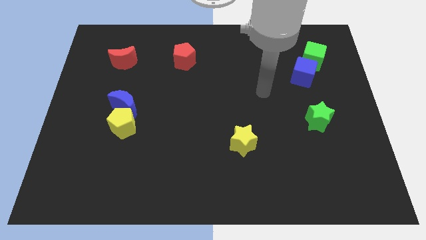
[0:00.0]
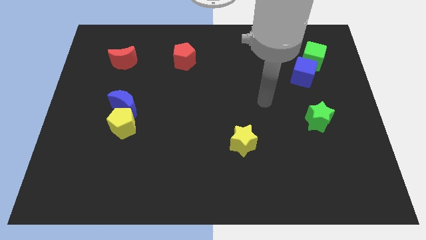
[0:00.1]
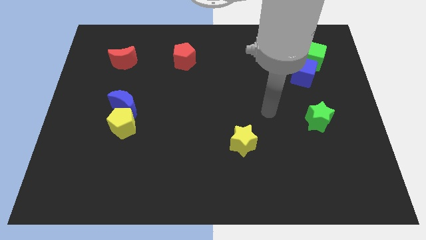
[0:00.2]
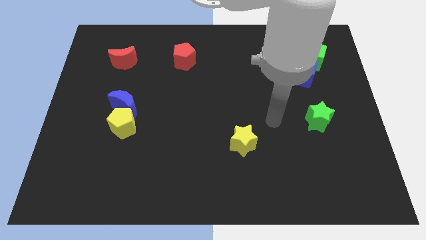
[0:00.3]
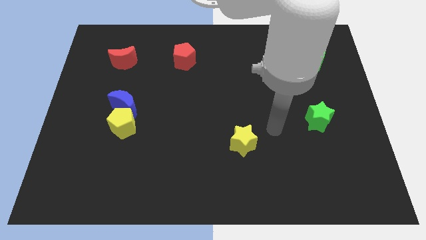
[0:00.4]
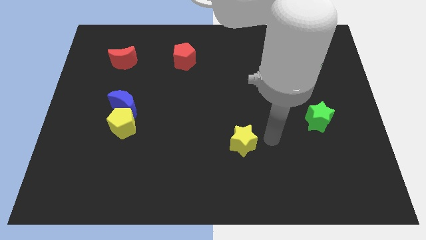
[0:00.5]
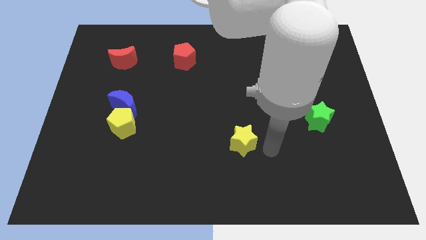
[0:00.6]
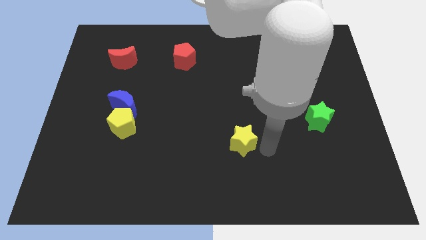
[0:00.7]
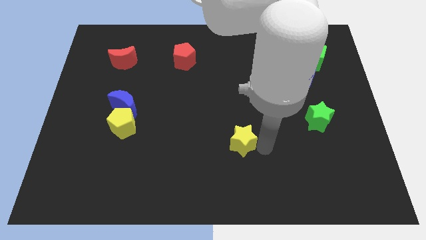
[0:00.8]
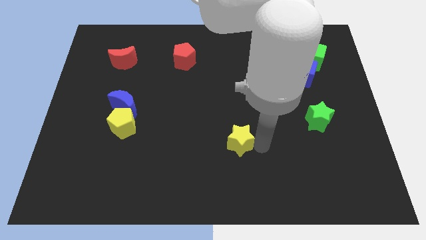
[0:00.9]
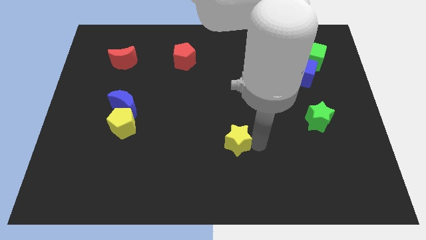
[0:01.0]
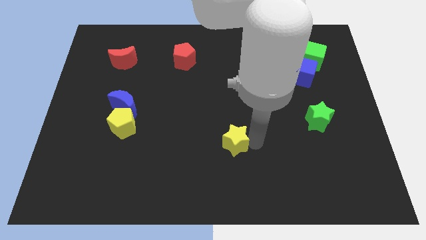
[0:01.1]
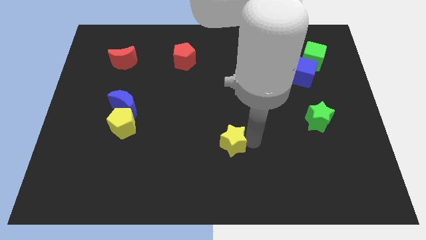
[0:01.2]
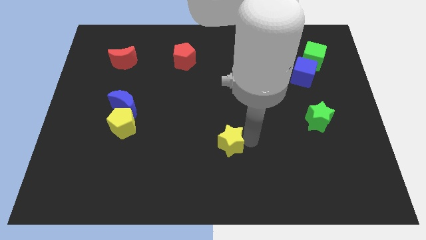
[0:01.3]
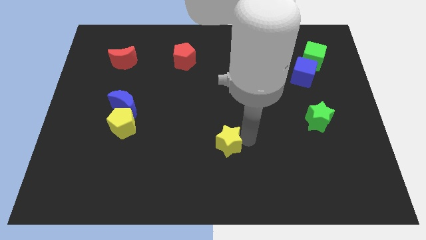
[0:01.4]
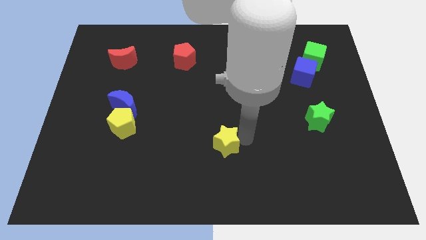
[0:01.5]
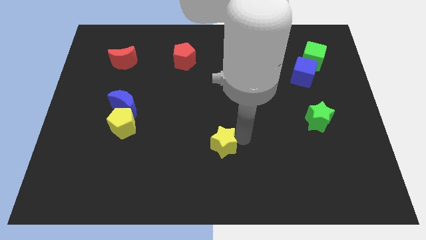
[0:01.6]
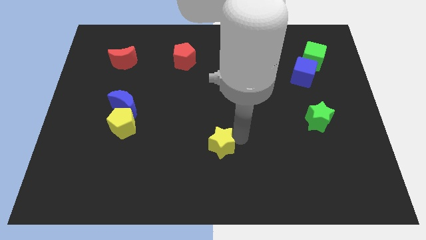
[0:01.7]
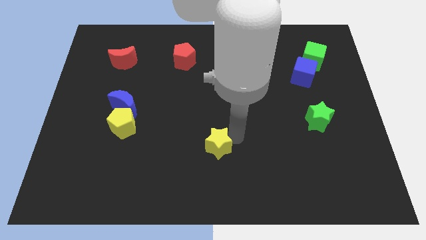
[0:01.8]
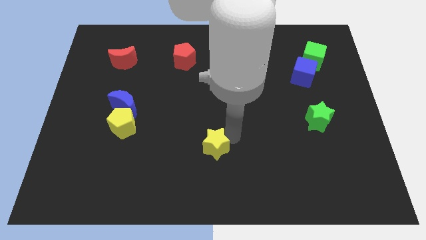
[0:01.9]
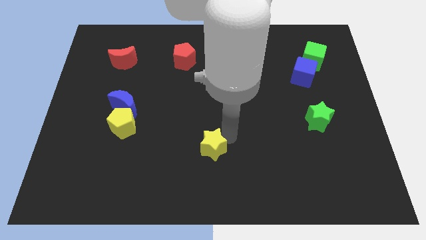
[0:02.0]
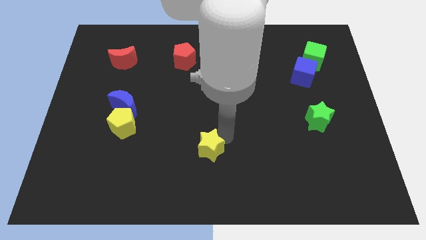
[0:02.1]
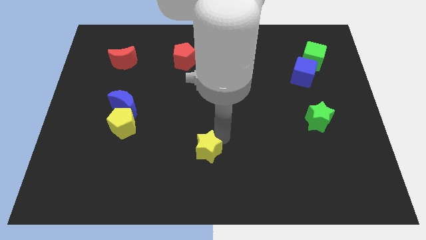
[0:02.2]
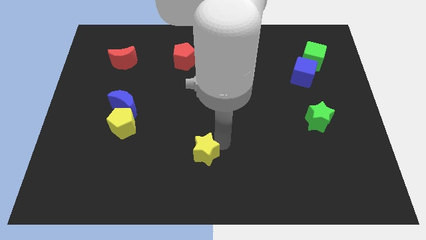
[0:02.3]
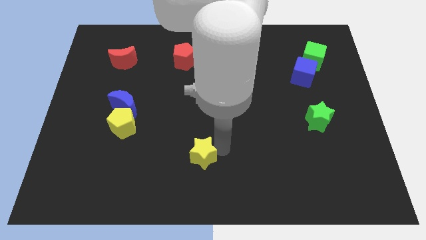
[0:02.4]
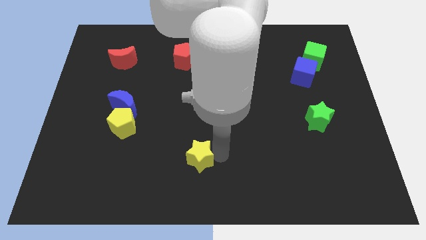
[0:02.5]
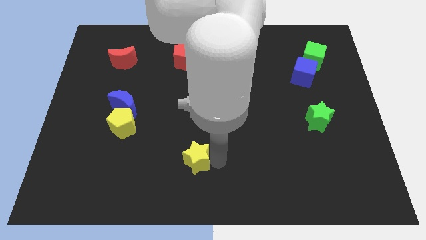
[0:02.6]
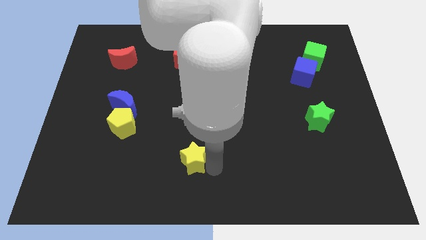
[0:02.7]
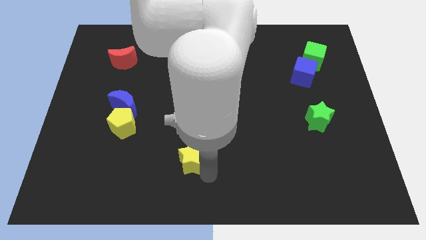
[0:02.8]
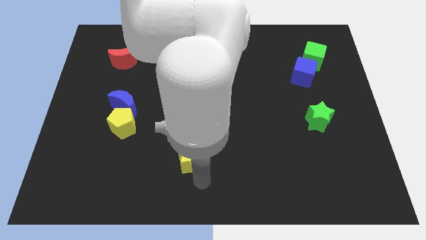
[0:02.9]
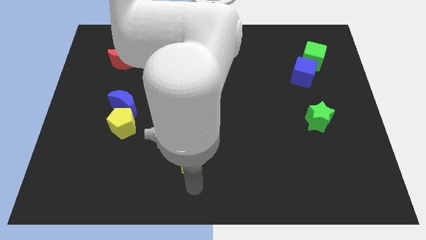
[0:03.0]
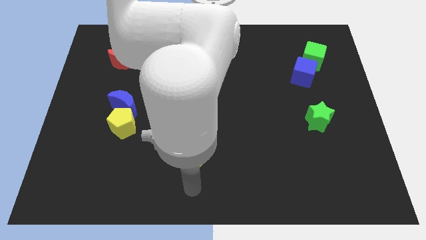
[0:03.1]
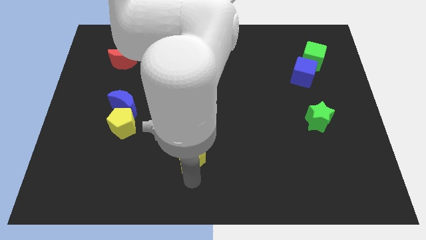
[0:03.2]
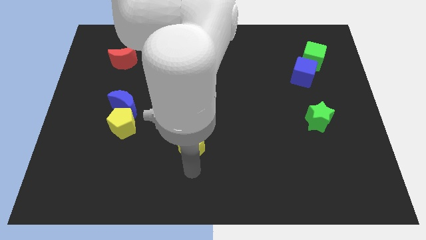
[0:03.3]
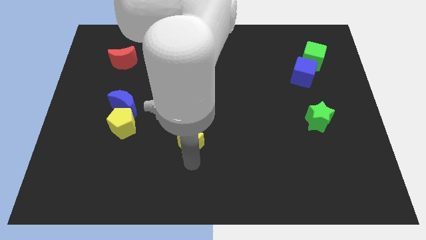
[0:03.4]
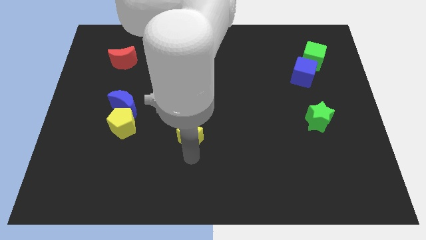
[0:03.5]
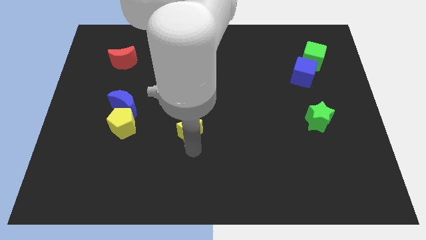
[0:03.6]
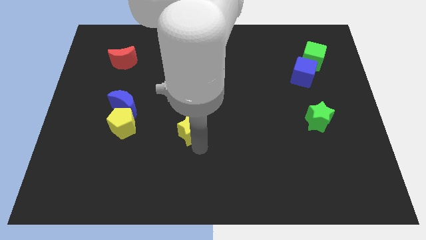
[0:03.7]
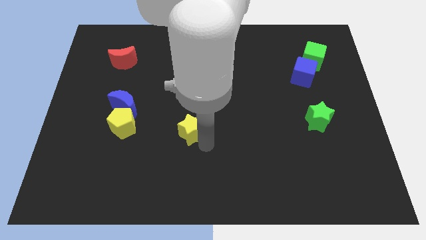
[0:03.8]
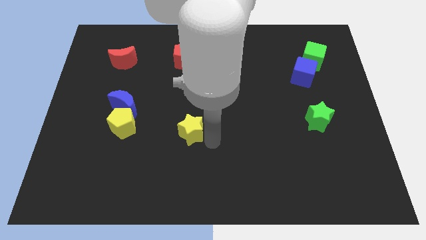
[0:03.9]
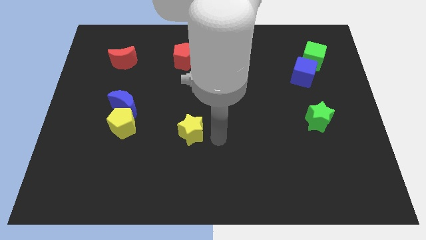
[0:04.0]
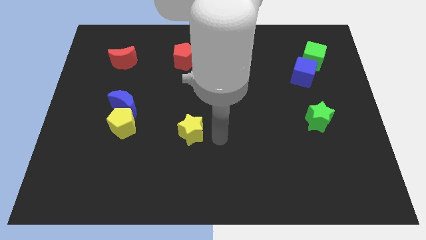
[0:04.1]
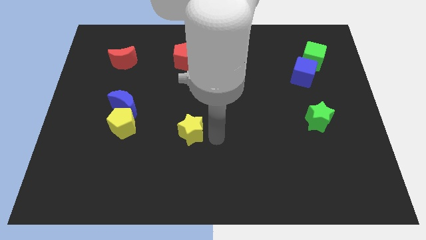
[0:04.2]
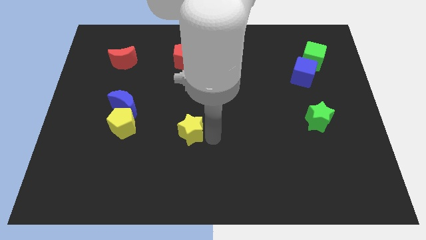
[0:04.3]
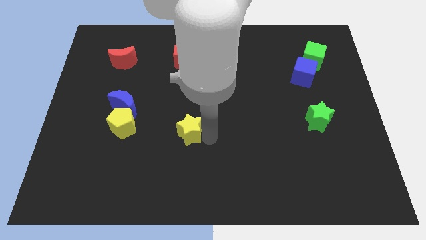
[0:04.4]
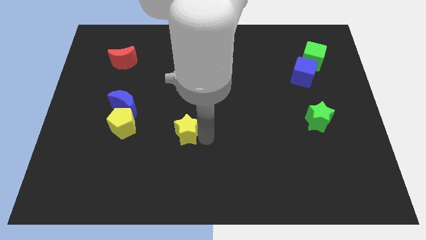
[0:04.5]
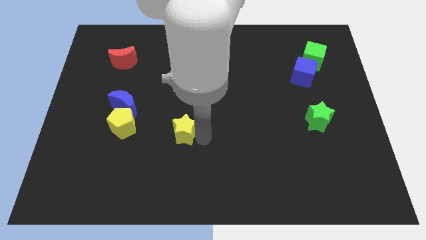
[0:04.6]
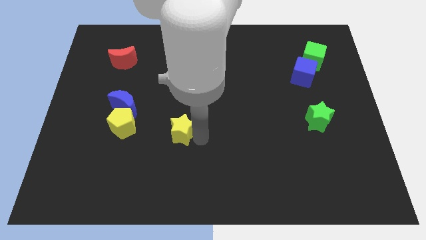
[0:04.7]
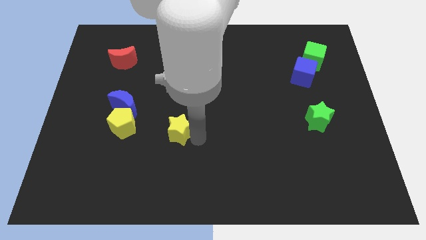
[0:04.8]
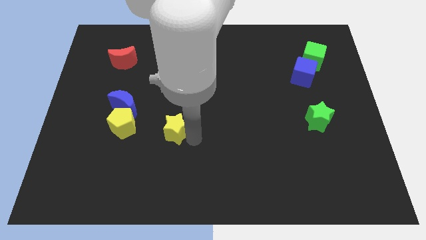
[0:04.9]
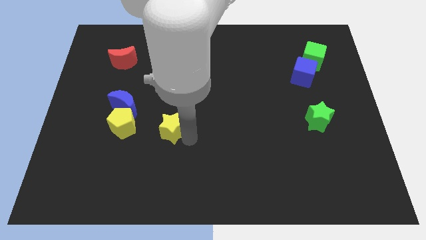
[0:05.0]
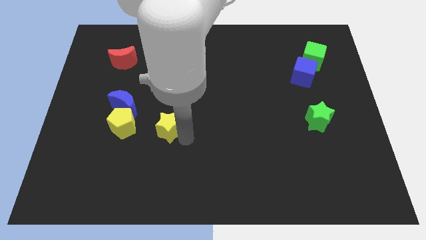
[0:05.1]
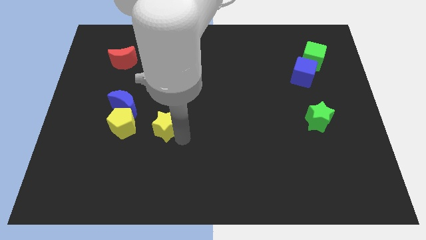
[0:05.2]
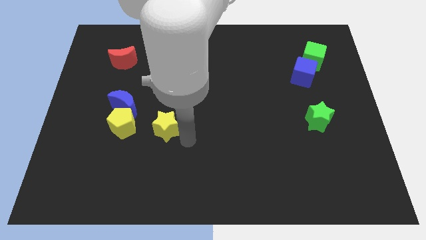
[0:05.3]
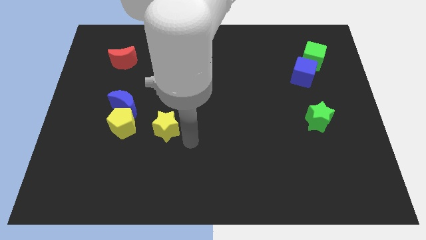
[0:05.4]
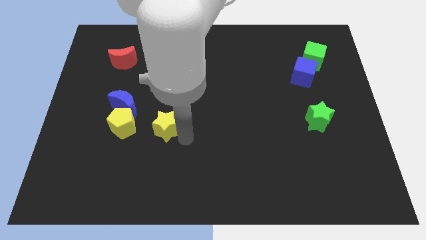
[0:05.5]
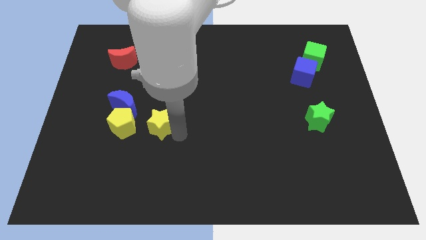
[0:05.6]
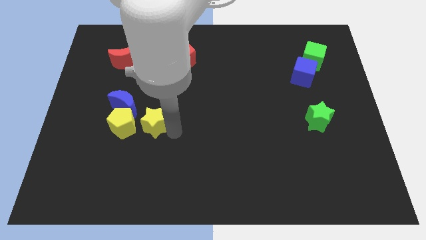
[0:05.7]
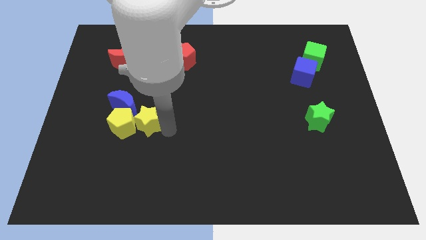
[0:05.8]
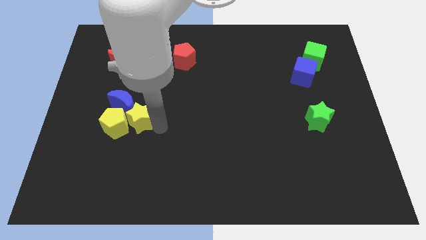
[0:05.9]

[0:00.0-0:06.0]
slide the yellow star towards the blue moon

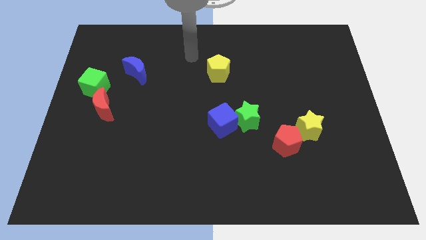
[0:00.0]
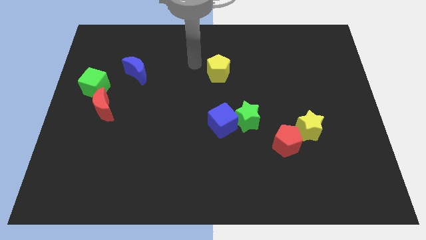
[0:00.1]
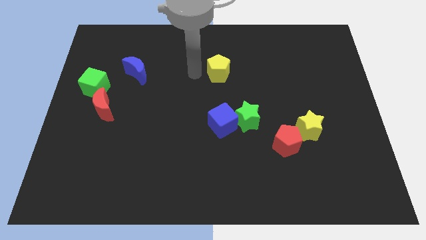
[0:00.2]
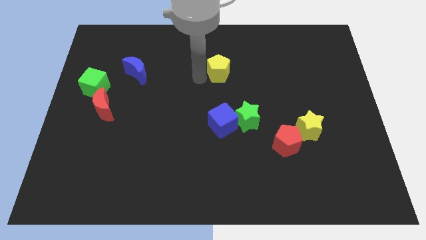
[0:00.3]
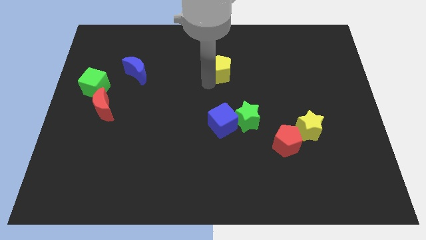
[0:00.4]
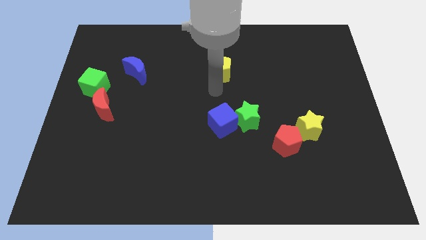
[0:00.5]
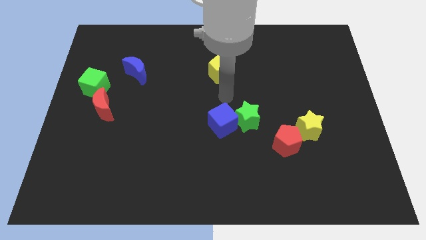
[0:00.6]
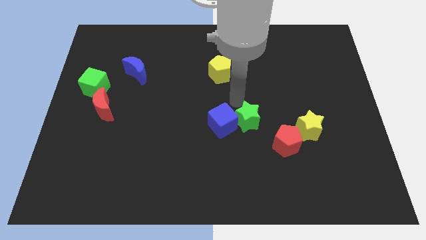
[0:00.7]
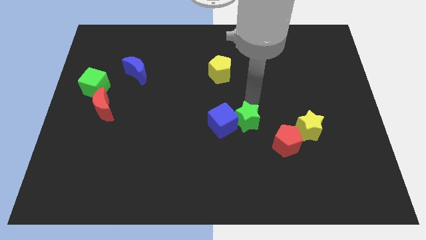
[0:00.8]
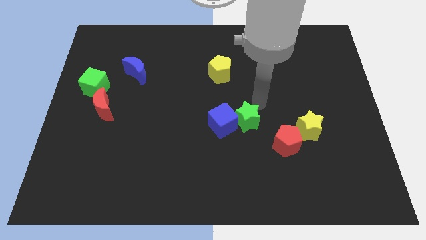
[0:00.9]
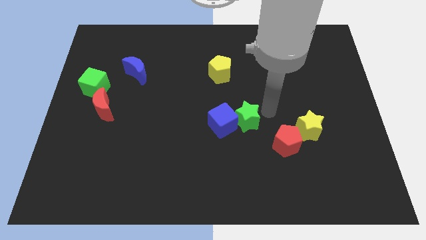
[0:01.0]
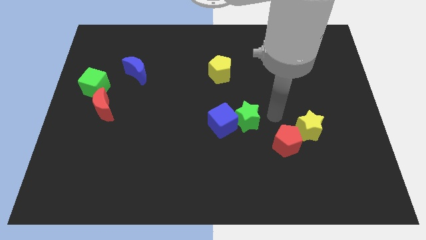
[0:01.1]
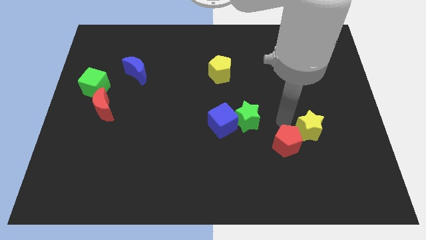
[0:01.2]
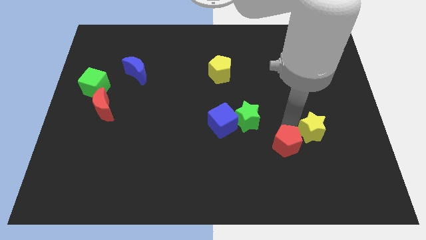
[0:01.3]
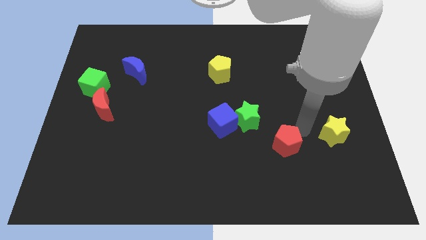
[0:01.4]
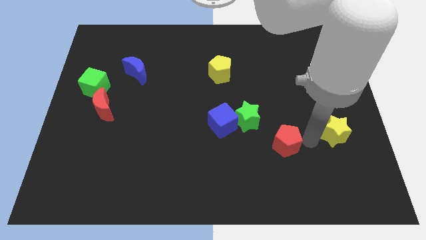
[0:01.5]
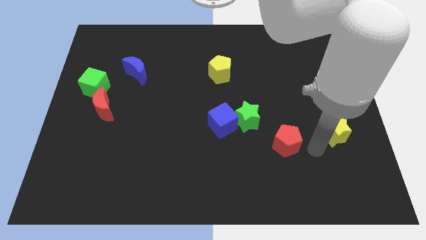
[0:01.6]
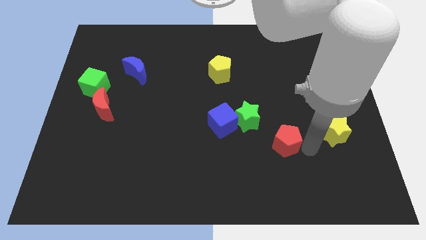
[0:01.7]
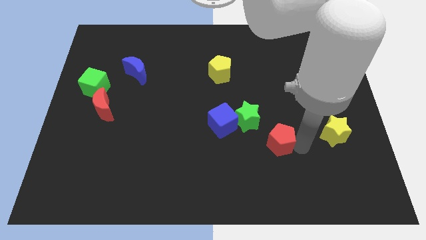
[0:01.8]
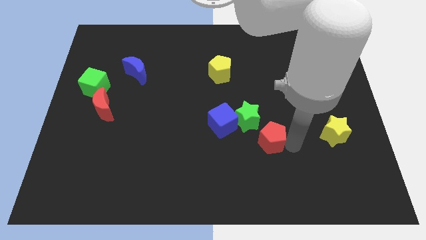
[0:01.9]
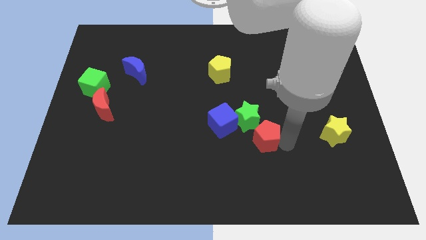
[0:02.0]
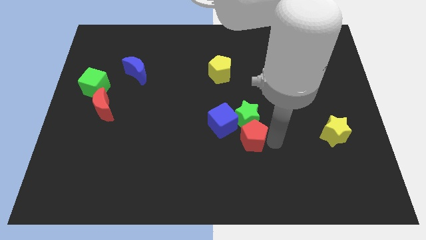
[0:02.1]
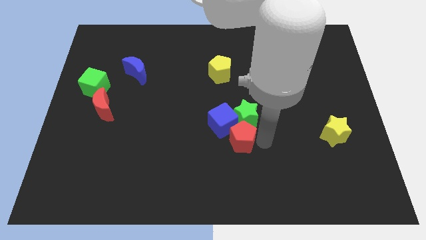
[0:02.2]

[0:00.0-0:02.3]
put the red pentagon towards the blue cube

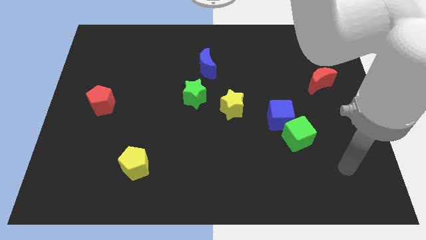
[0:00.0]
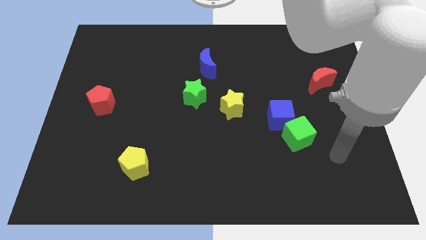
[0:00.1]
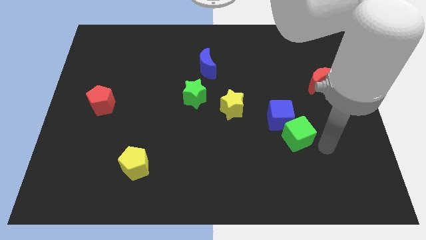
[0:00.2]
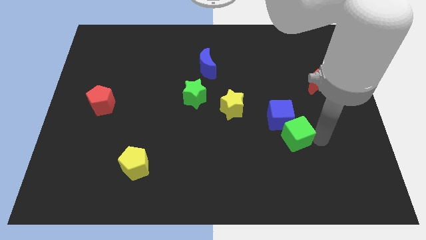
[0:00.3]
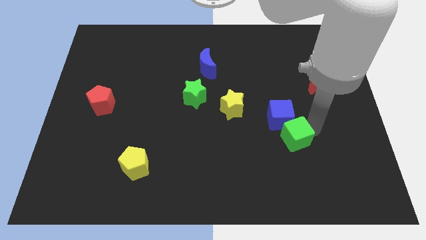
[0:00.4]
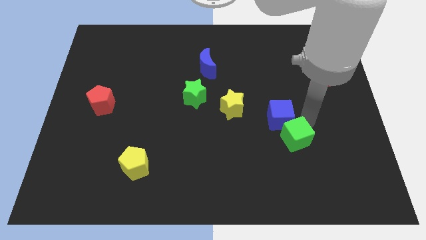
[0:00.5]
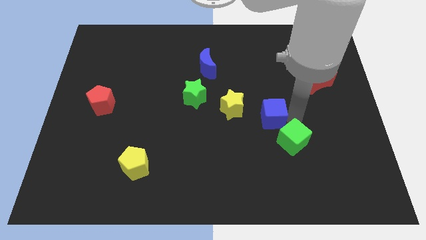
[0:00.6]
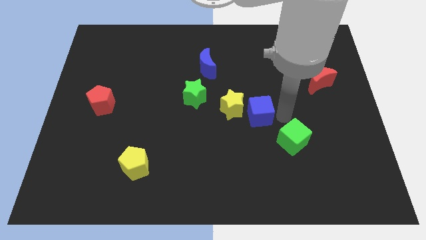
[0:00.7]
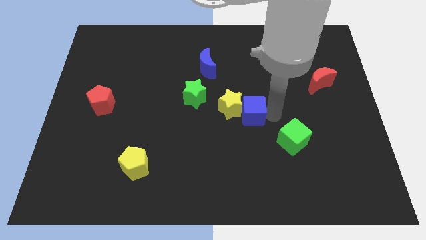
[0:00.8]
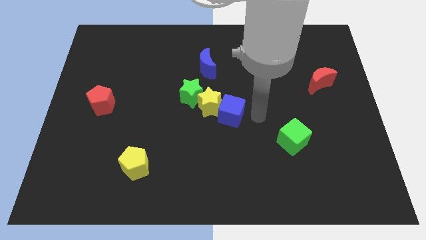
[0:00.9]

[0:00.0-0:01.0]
slide the yellow star towards the green star
